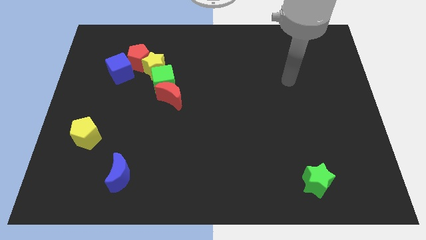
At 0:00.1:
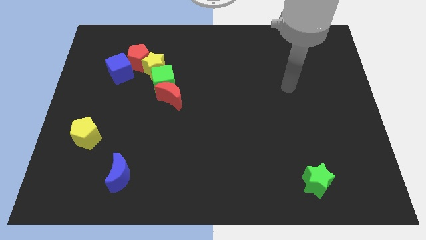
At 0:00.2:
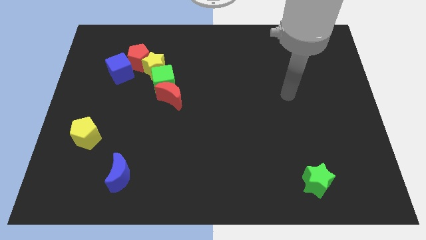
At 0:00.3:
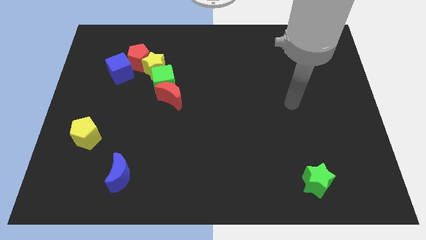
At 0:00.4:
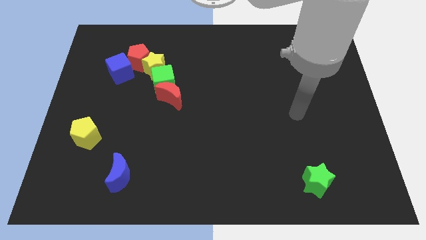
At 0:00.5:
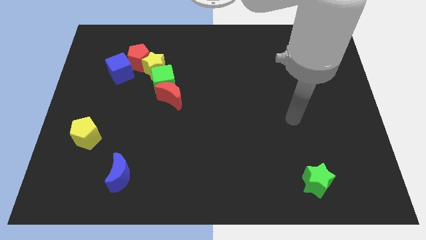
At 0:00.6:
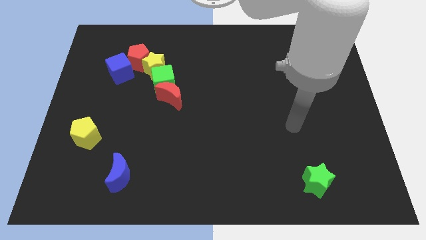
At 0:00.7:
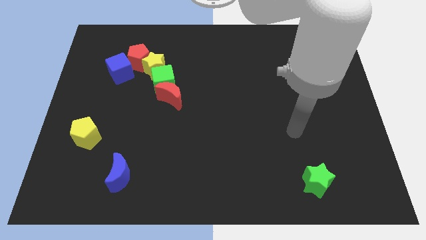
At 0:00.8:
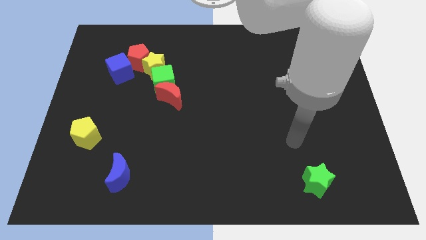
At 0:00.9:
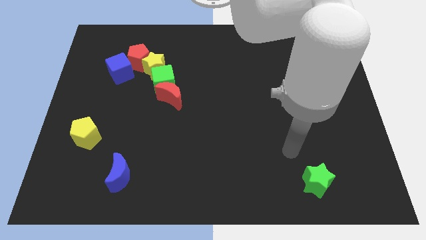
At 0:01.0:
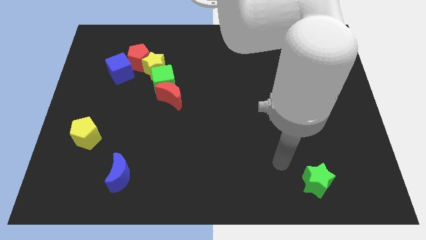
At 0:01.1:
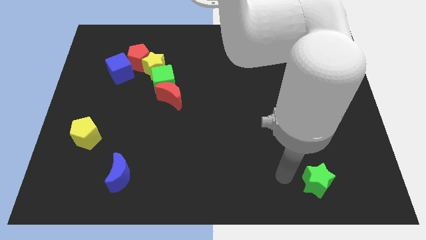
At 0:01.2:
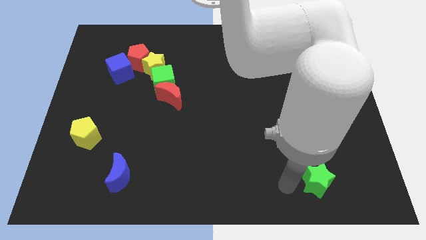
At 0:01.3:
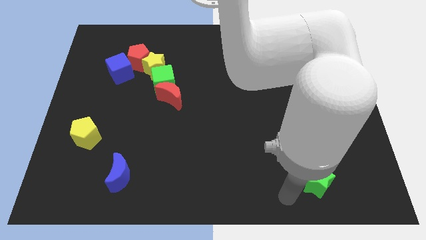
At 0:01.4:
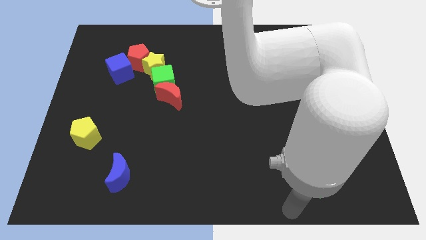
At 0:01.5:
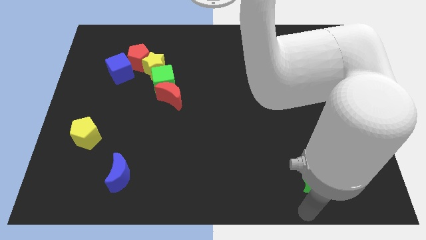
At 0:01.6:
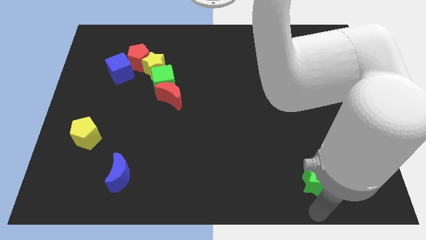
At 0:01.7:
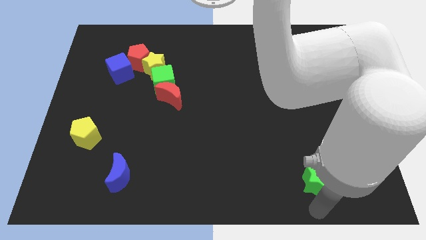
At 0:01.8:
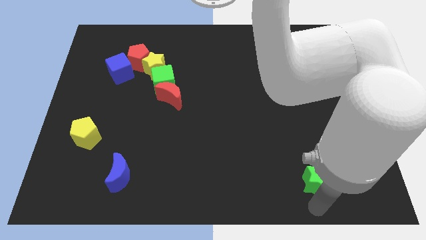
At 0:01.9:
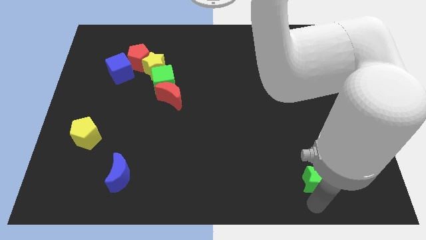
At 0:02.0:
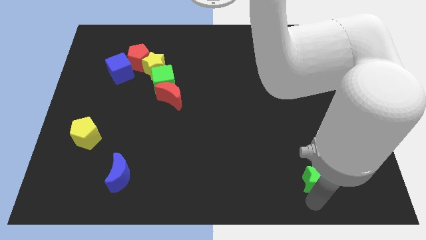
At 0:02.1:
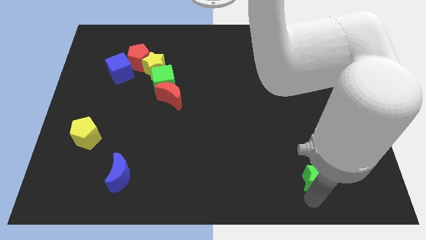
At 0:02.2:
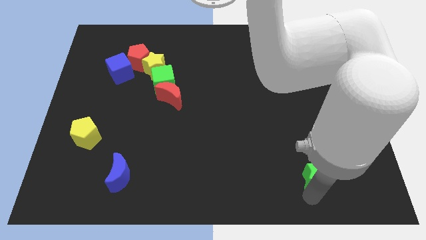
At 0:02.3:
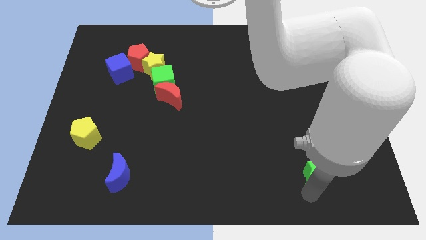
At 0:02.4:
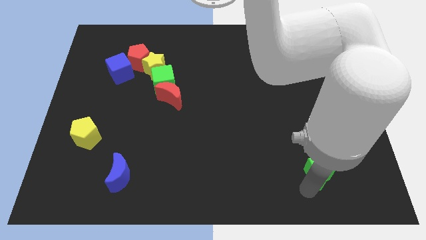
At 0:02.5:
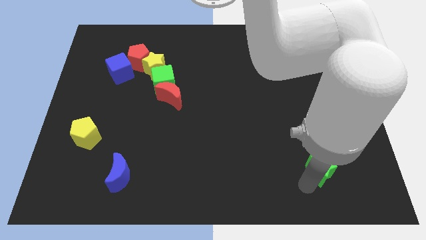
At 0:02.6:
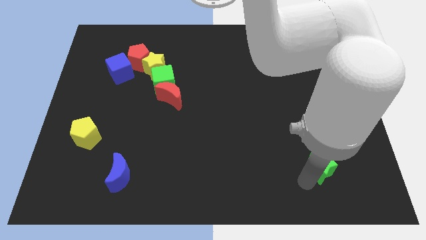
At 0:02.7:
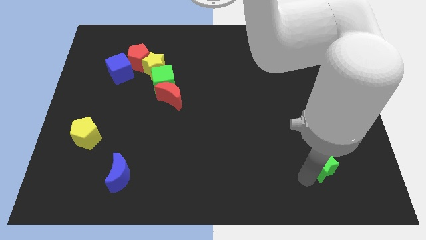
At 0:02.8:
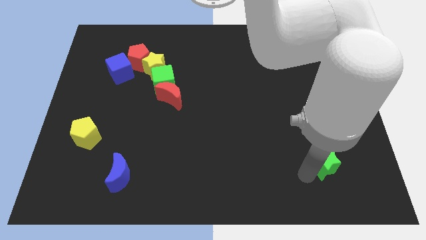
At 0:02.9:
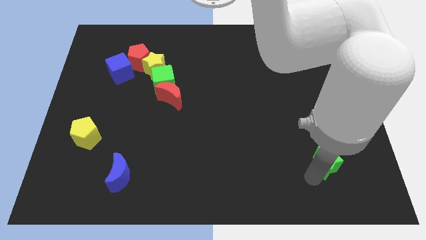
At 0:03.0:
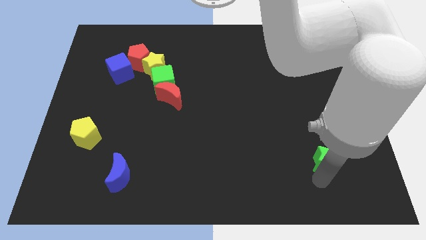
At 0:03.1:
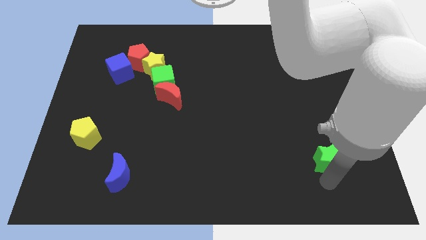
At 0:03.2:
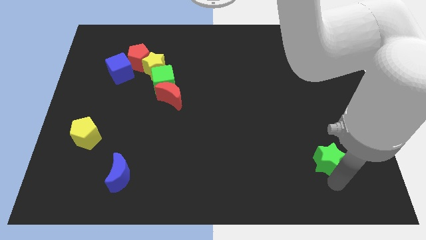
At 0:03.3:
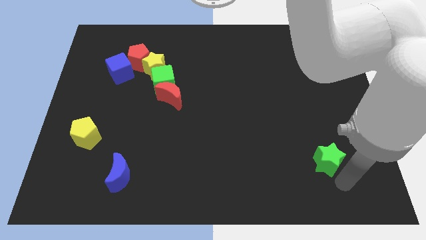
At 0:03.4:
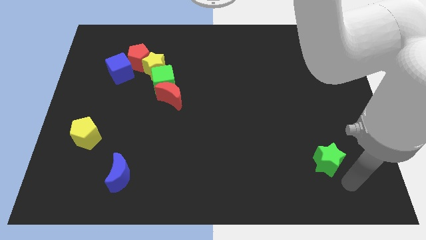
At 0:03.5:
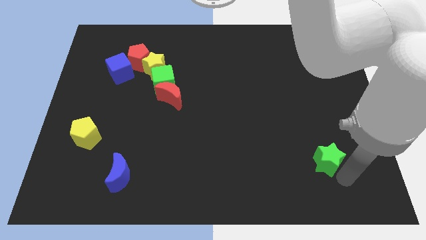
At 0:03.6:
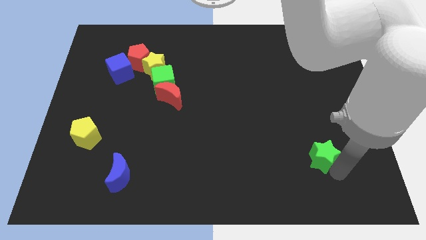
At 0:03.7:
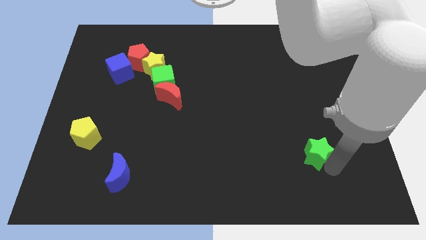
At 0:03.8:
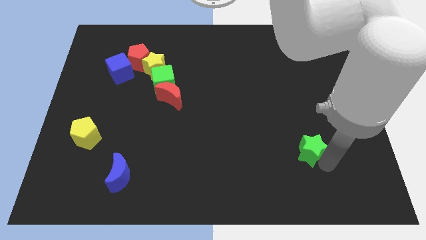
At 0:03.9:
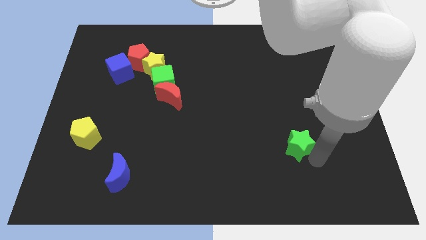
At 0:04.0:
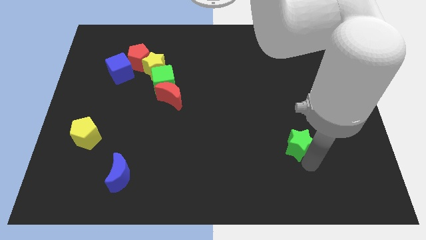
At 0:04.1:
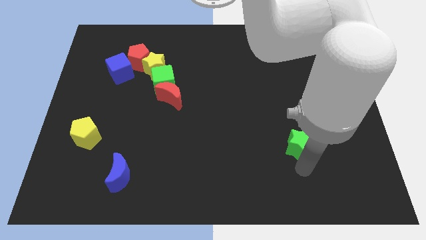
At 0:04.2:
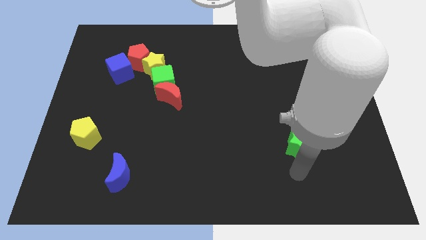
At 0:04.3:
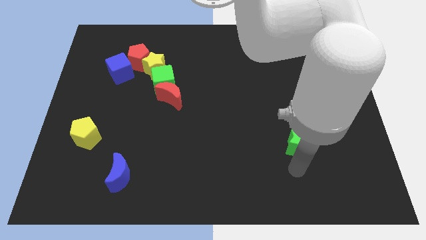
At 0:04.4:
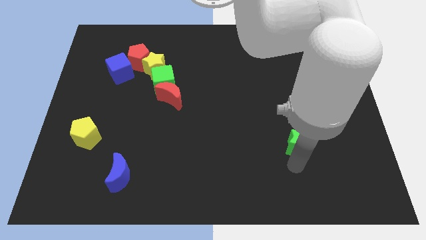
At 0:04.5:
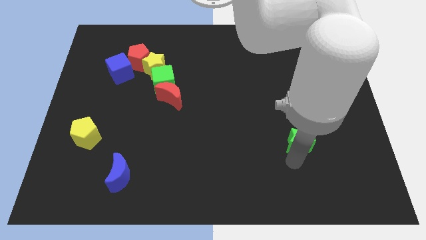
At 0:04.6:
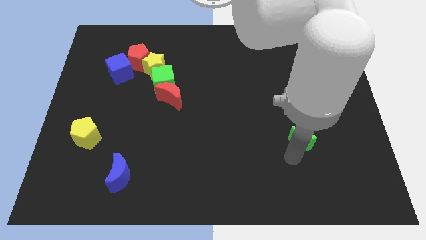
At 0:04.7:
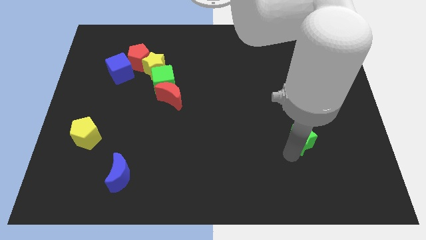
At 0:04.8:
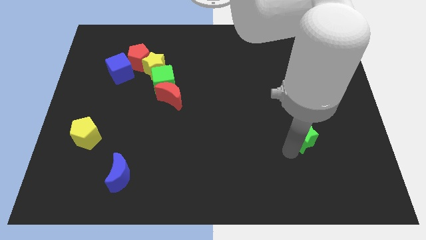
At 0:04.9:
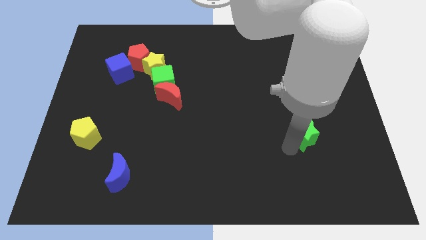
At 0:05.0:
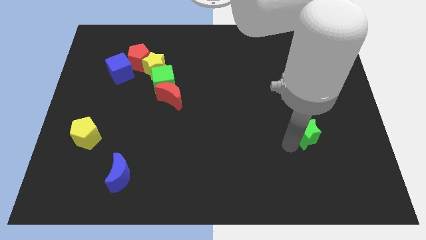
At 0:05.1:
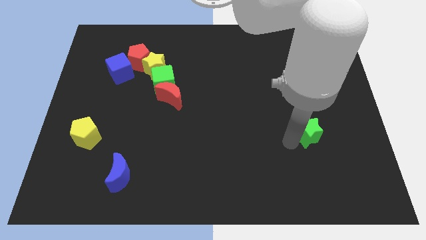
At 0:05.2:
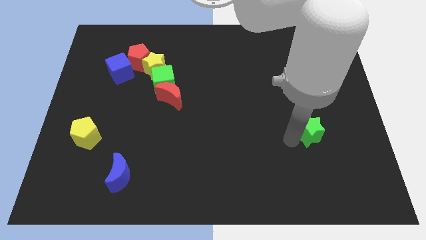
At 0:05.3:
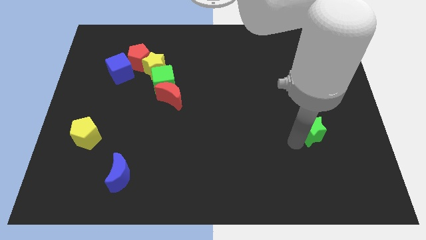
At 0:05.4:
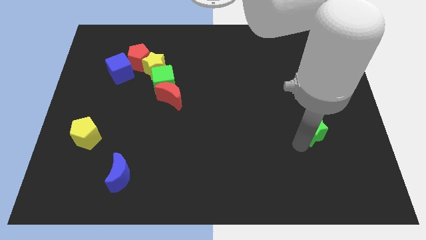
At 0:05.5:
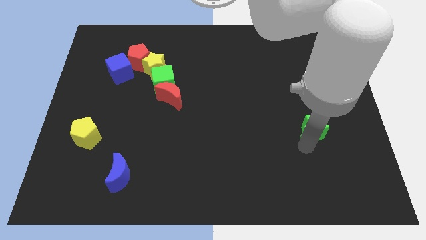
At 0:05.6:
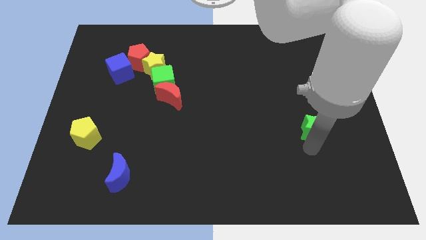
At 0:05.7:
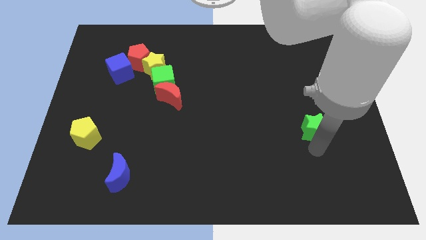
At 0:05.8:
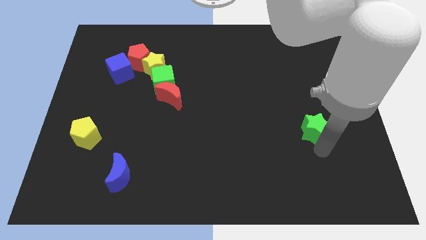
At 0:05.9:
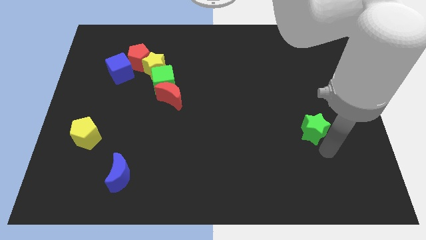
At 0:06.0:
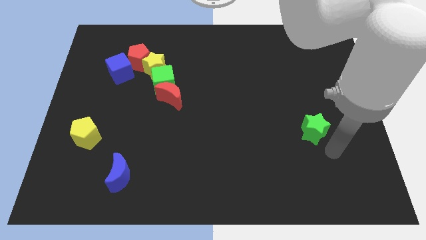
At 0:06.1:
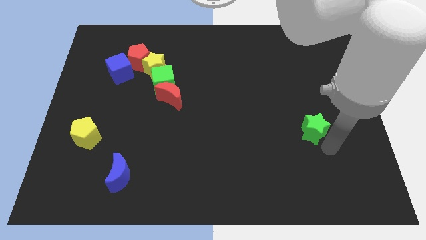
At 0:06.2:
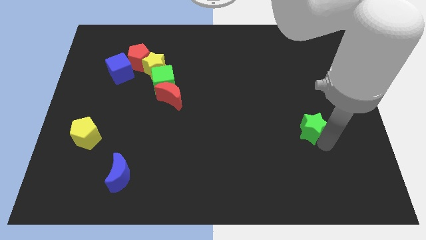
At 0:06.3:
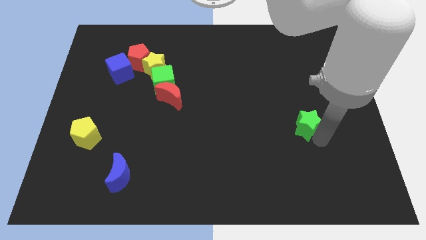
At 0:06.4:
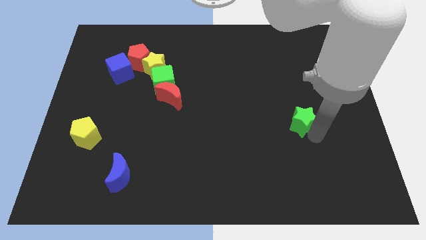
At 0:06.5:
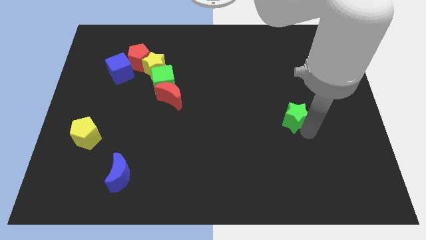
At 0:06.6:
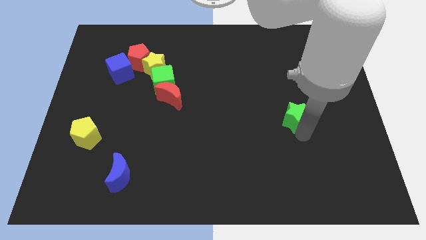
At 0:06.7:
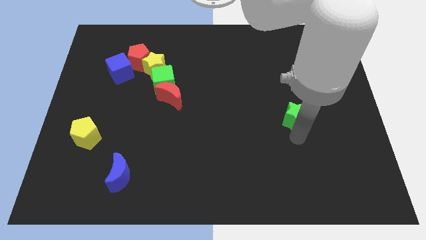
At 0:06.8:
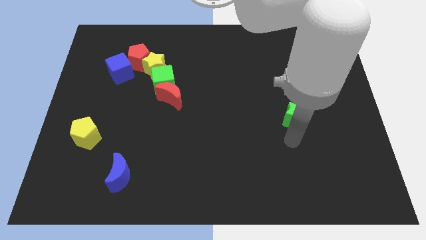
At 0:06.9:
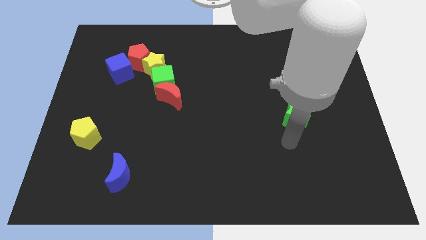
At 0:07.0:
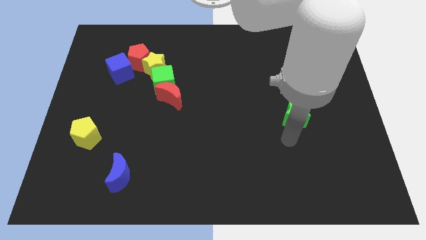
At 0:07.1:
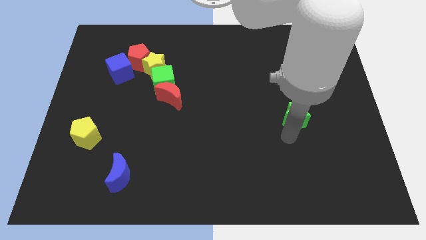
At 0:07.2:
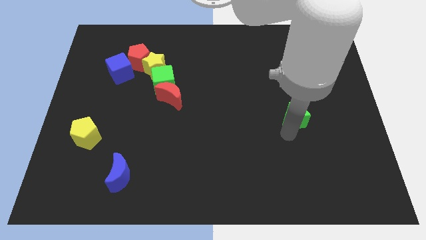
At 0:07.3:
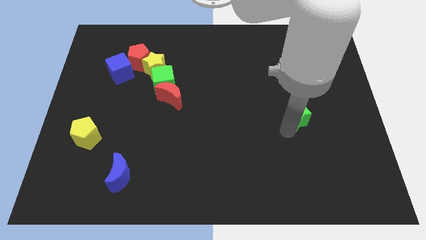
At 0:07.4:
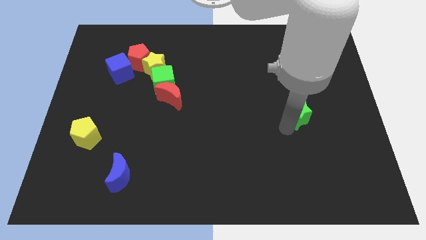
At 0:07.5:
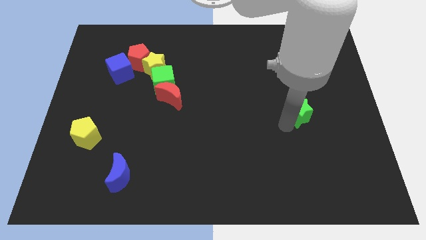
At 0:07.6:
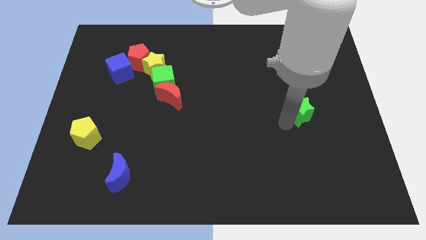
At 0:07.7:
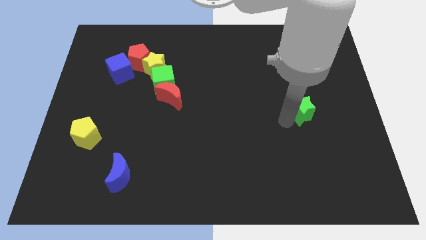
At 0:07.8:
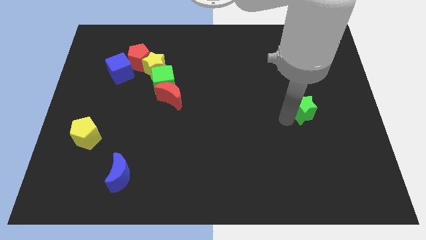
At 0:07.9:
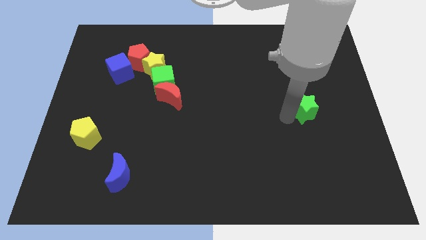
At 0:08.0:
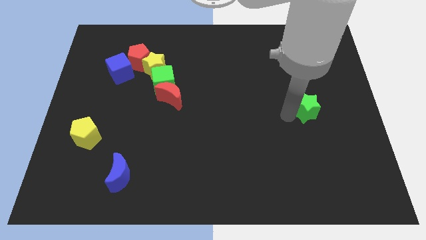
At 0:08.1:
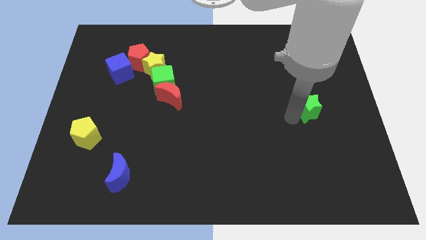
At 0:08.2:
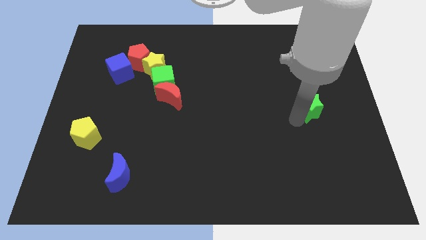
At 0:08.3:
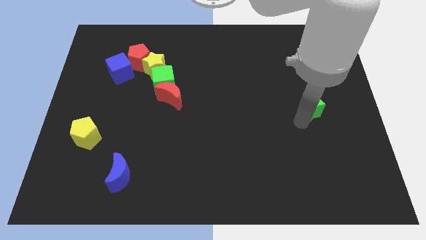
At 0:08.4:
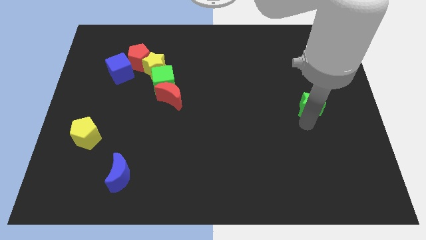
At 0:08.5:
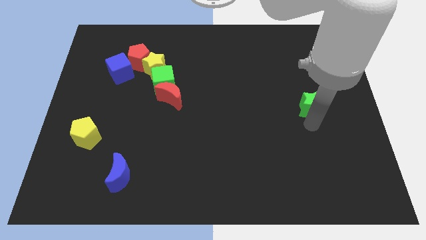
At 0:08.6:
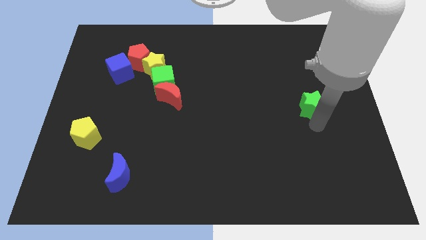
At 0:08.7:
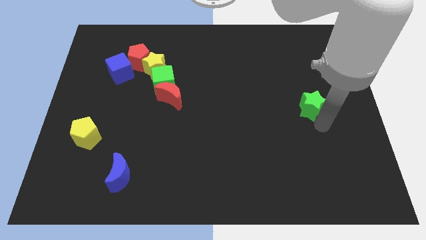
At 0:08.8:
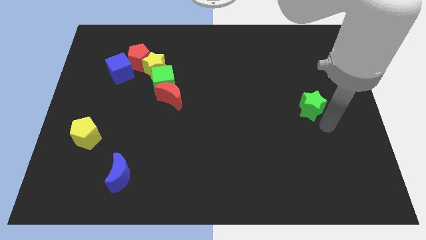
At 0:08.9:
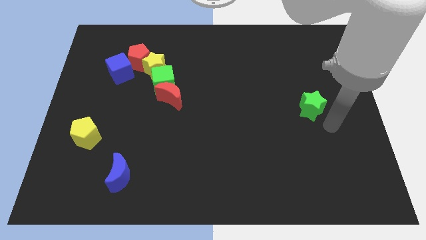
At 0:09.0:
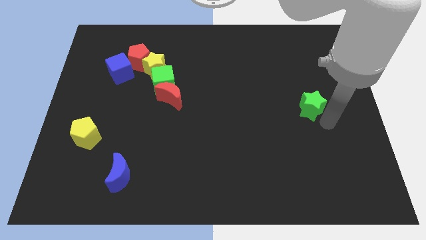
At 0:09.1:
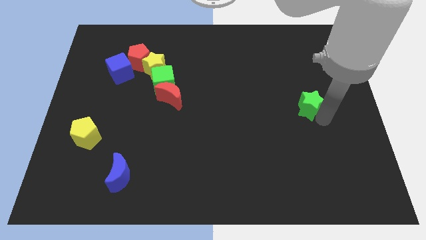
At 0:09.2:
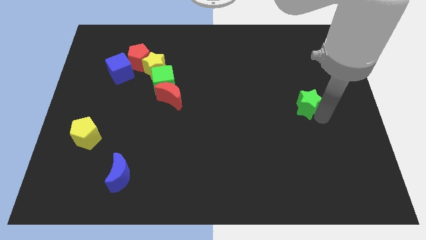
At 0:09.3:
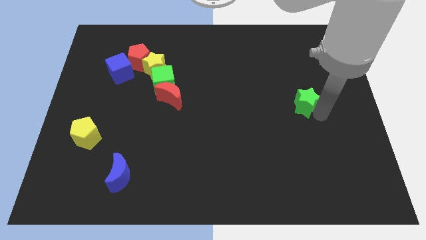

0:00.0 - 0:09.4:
move the green star upwards
